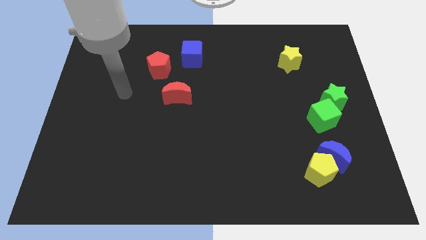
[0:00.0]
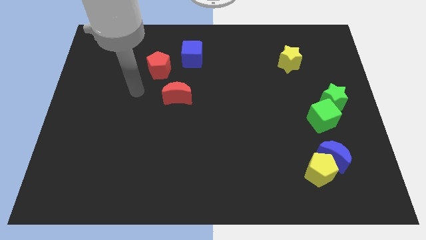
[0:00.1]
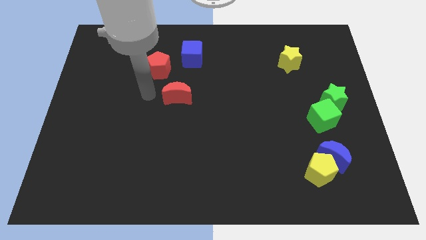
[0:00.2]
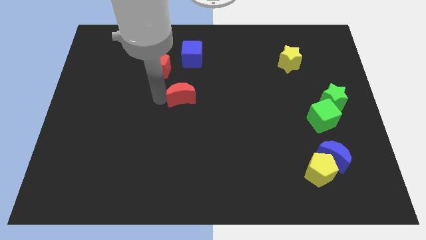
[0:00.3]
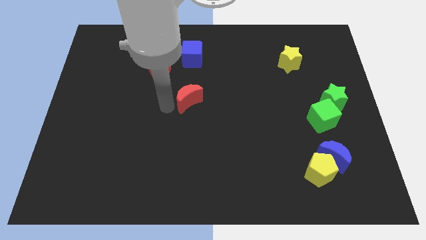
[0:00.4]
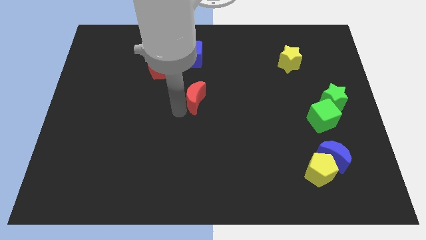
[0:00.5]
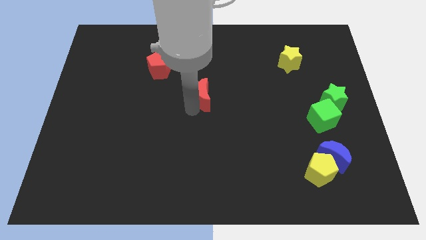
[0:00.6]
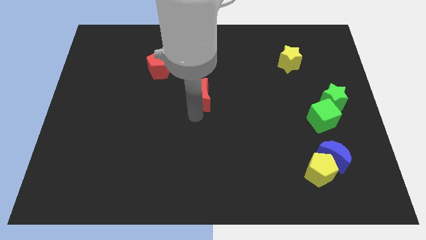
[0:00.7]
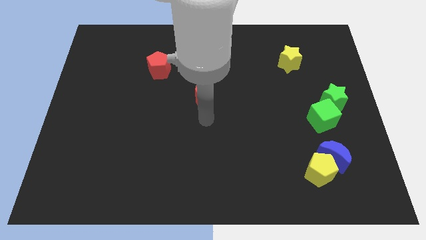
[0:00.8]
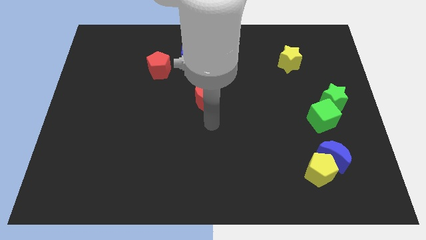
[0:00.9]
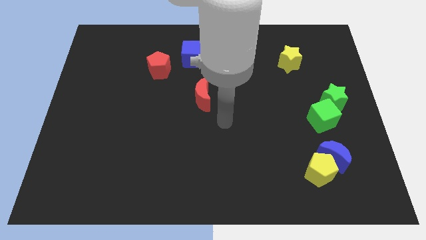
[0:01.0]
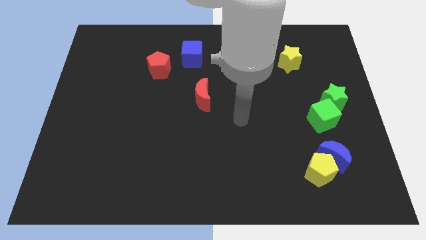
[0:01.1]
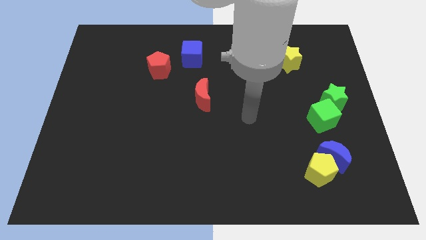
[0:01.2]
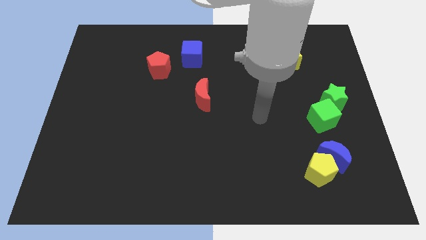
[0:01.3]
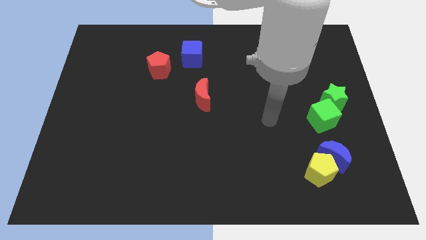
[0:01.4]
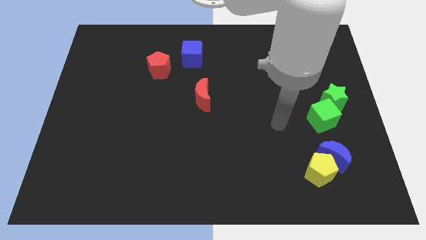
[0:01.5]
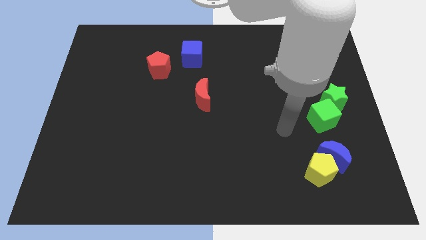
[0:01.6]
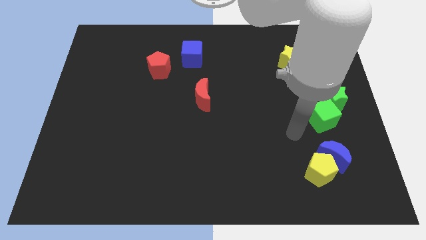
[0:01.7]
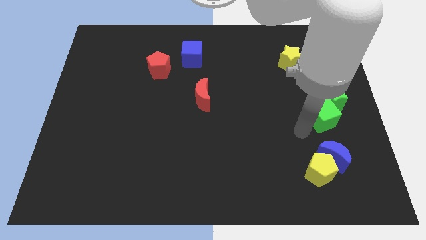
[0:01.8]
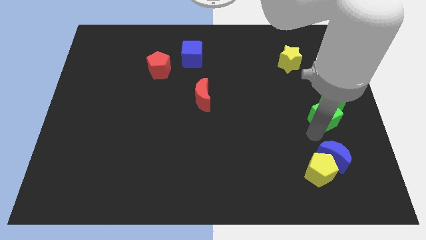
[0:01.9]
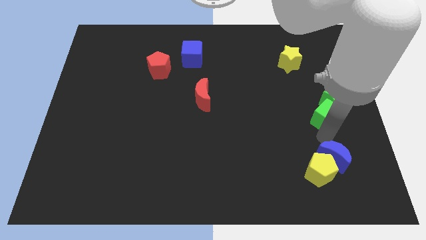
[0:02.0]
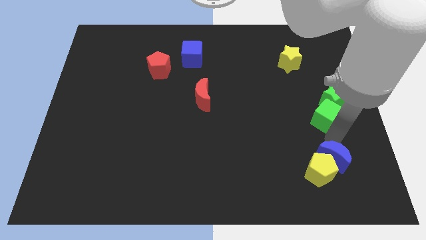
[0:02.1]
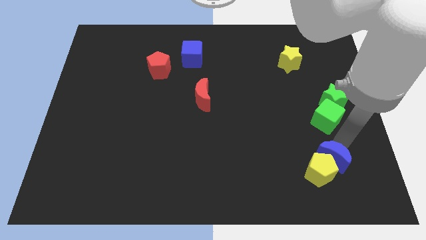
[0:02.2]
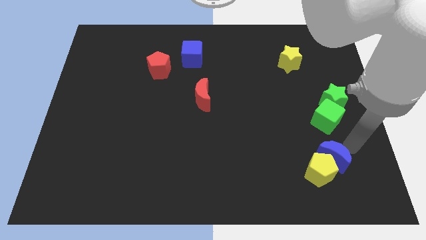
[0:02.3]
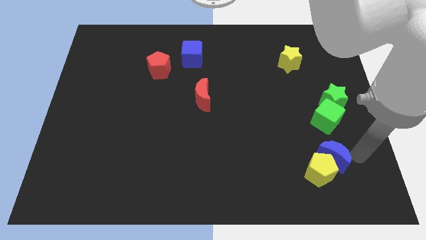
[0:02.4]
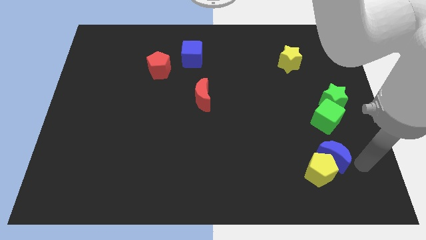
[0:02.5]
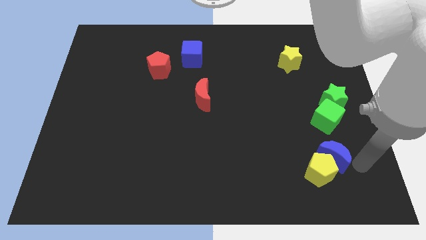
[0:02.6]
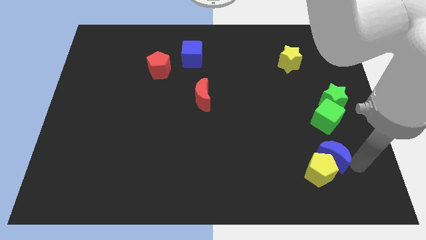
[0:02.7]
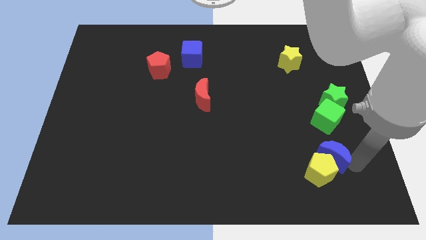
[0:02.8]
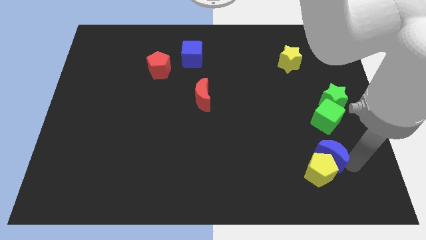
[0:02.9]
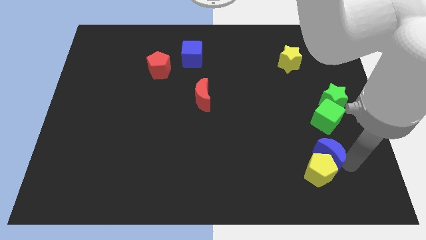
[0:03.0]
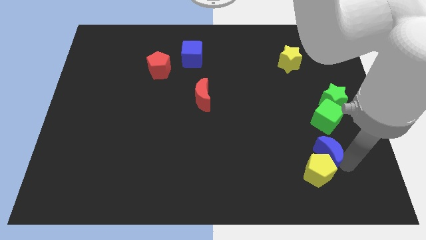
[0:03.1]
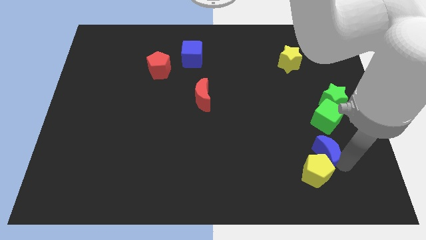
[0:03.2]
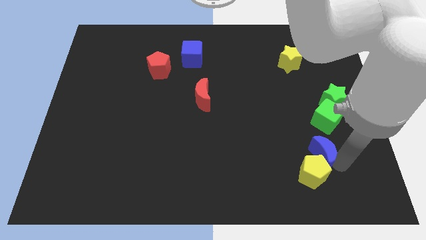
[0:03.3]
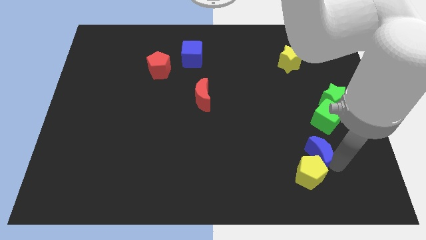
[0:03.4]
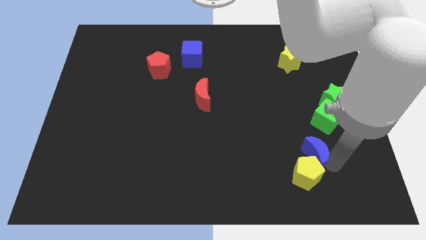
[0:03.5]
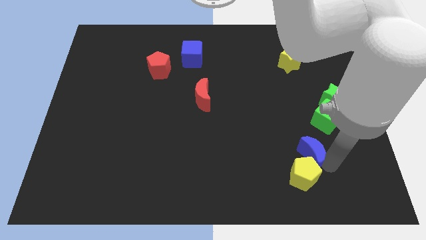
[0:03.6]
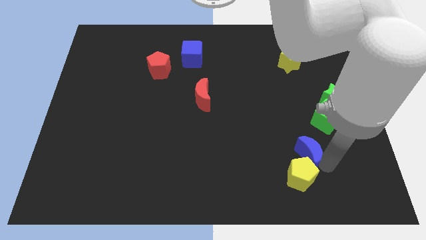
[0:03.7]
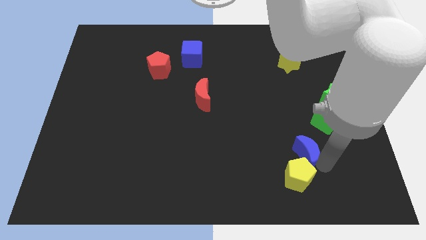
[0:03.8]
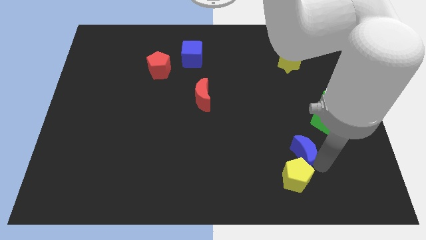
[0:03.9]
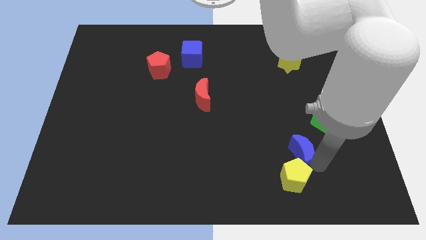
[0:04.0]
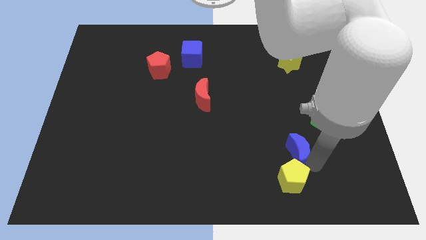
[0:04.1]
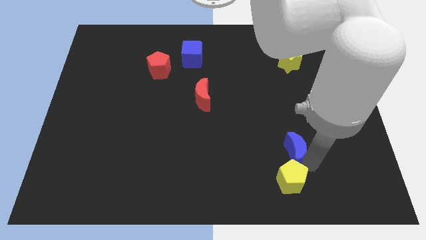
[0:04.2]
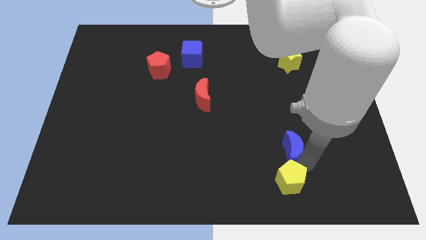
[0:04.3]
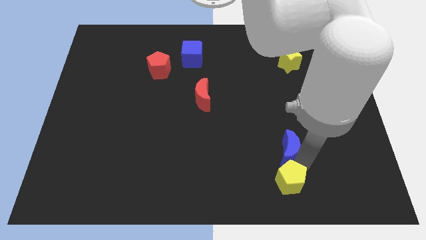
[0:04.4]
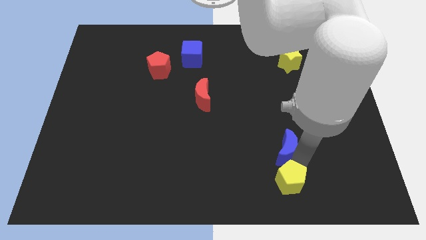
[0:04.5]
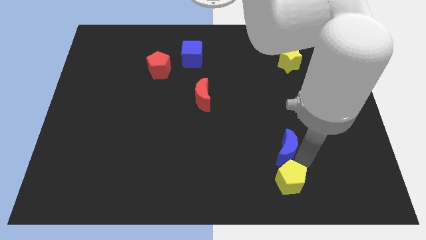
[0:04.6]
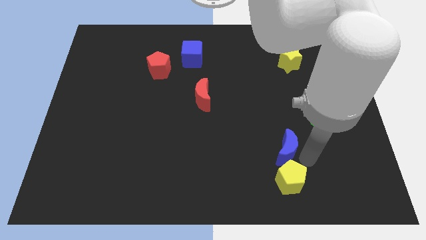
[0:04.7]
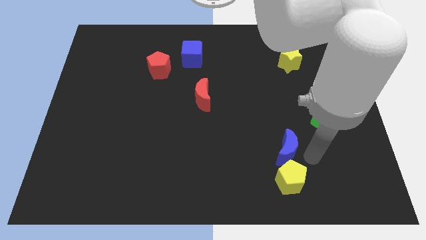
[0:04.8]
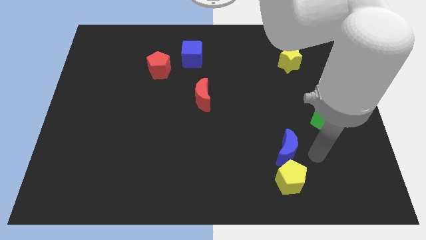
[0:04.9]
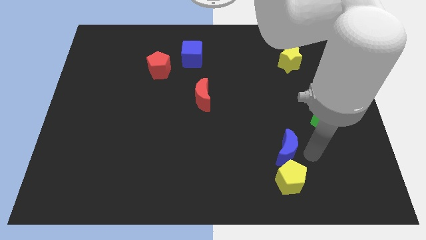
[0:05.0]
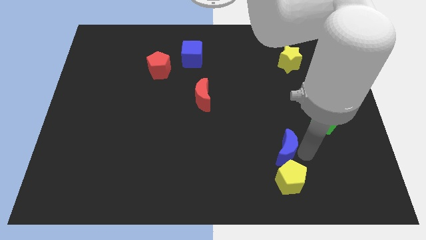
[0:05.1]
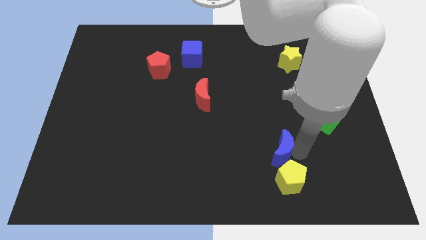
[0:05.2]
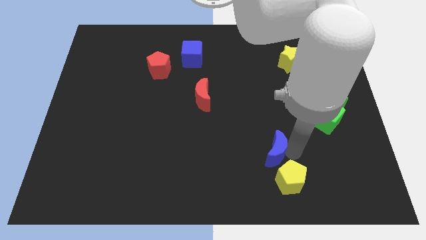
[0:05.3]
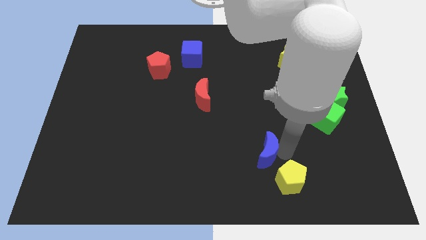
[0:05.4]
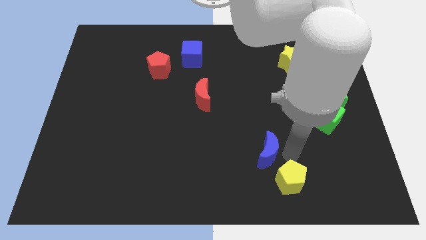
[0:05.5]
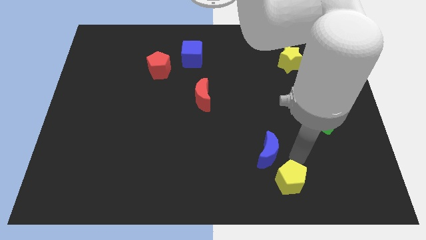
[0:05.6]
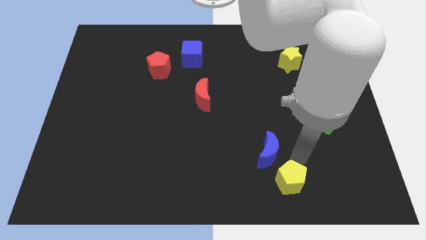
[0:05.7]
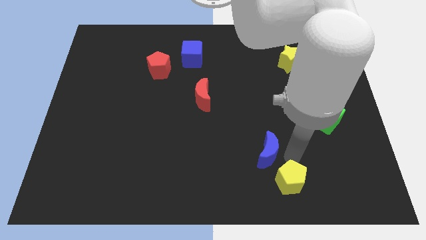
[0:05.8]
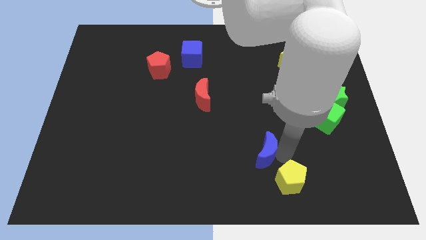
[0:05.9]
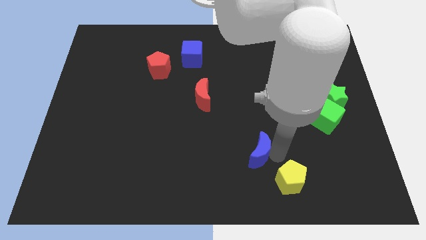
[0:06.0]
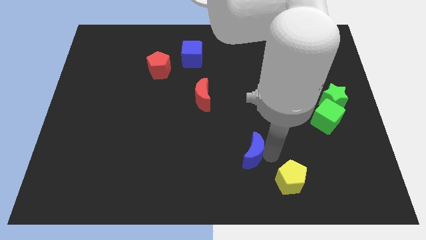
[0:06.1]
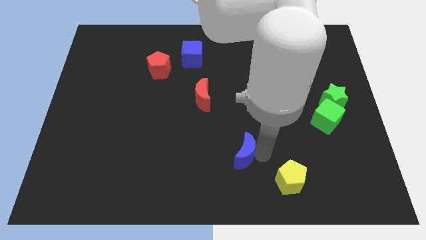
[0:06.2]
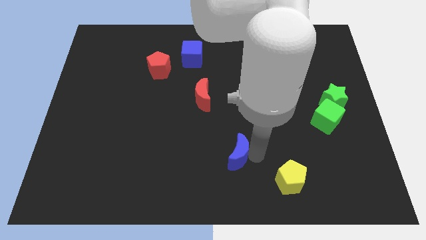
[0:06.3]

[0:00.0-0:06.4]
slide the blue moon to the left

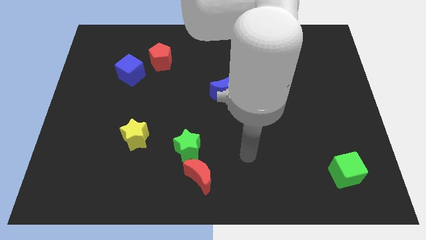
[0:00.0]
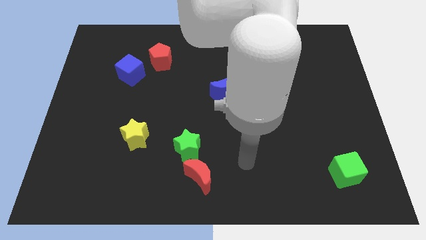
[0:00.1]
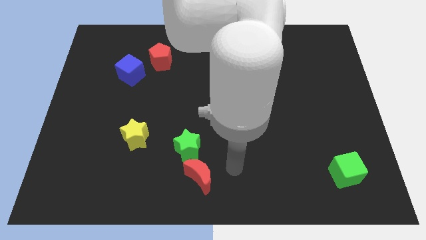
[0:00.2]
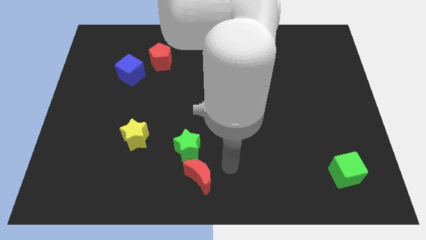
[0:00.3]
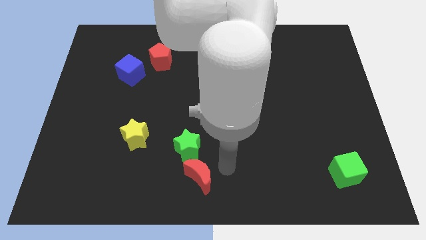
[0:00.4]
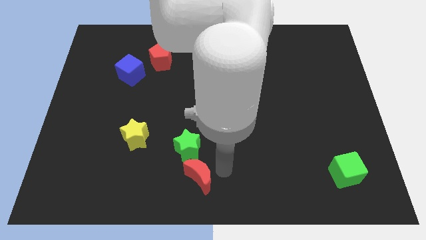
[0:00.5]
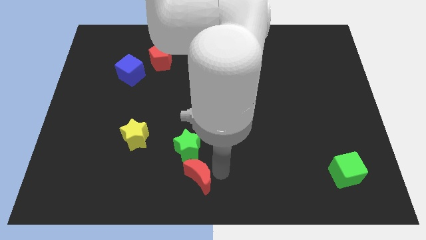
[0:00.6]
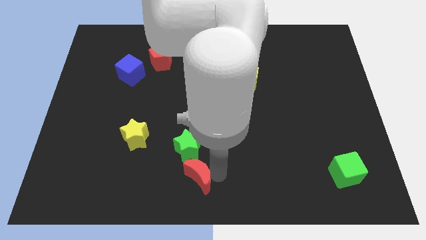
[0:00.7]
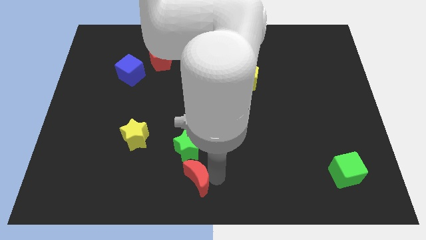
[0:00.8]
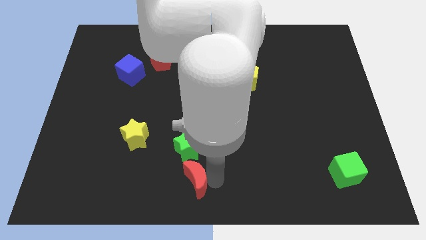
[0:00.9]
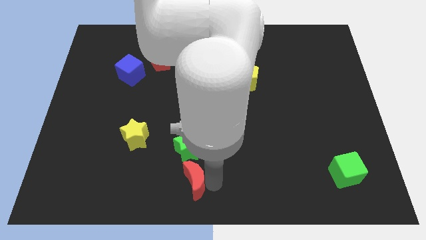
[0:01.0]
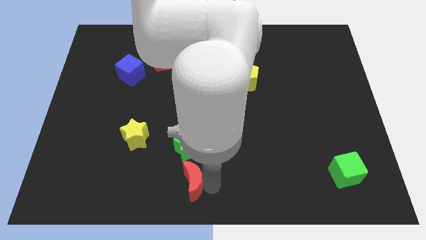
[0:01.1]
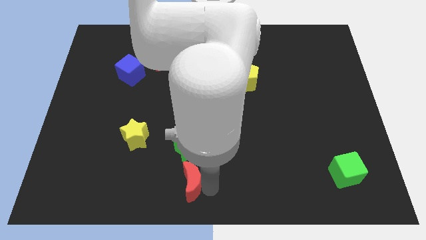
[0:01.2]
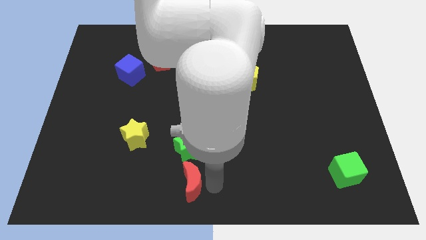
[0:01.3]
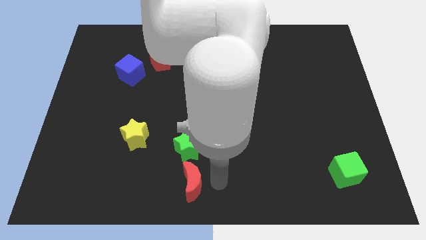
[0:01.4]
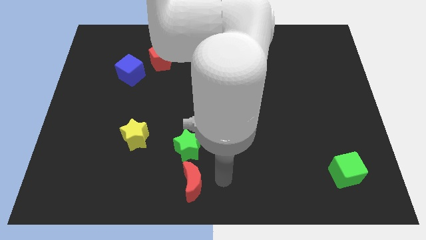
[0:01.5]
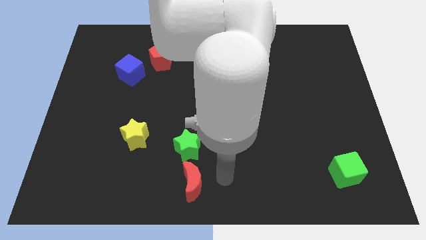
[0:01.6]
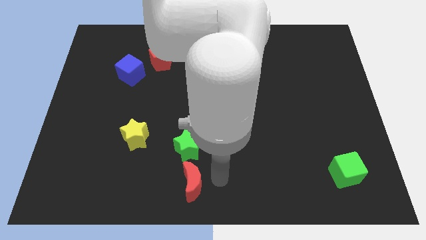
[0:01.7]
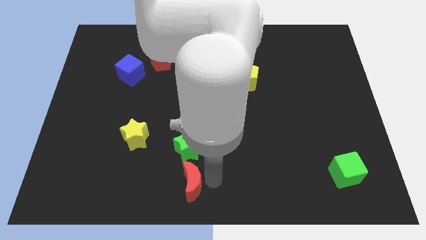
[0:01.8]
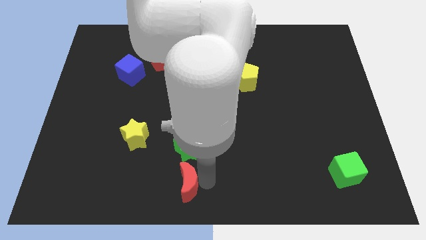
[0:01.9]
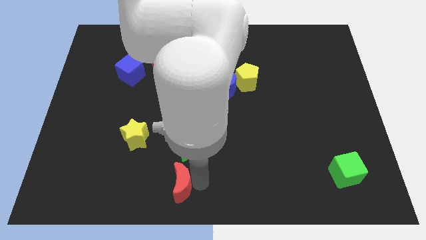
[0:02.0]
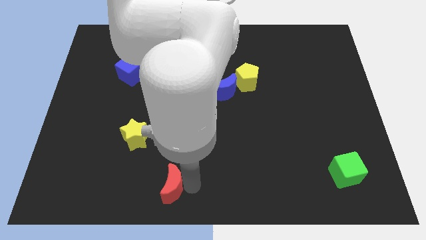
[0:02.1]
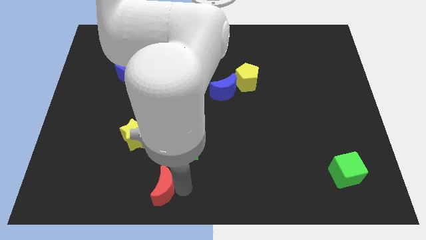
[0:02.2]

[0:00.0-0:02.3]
slightly push the red moon to the left
